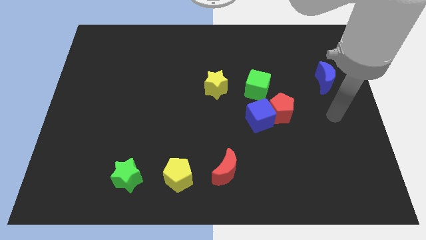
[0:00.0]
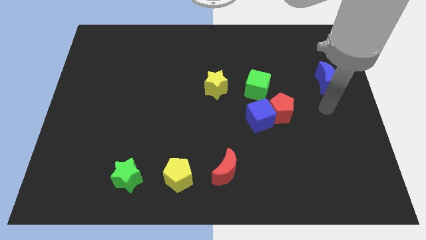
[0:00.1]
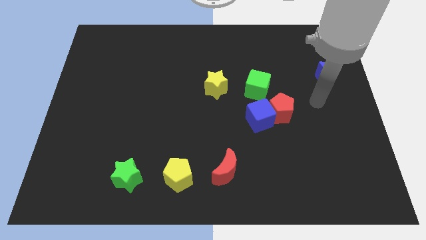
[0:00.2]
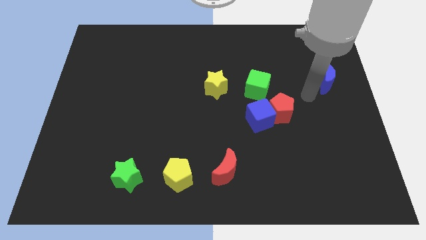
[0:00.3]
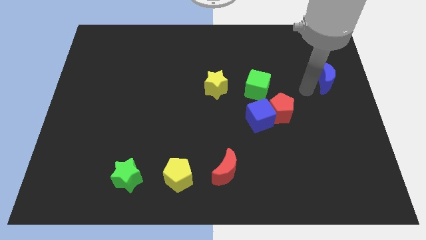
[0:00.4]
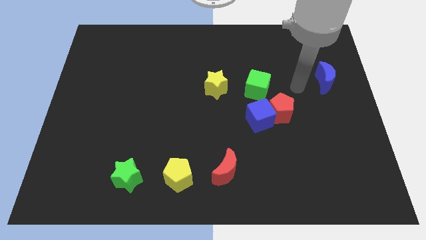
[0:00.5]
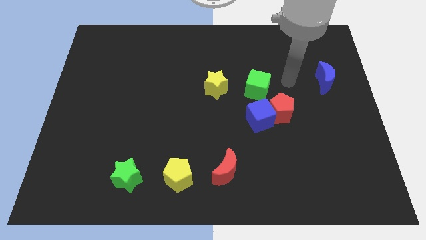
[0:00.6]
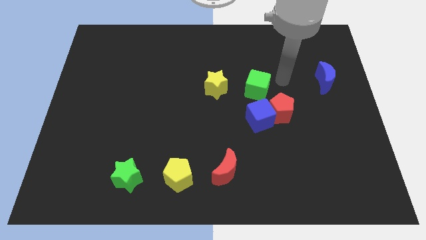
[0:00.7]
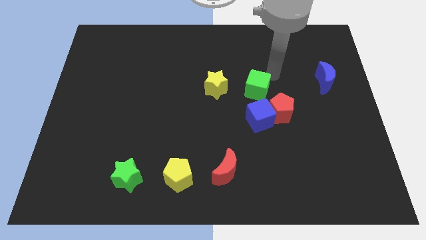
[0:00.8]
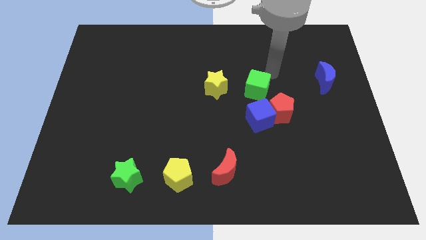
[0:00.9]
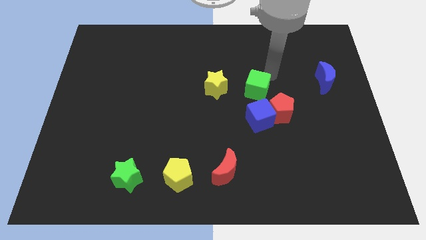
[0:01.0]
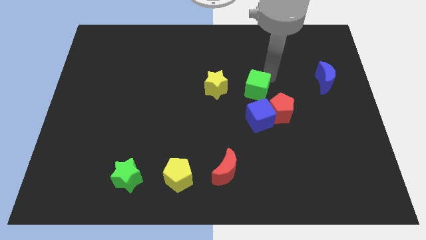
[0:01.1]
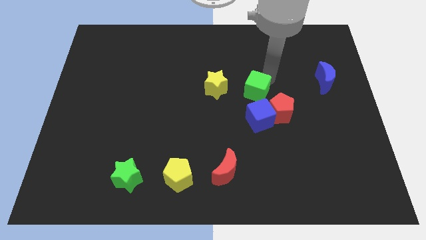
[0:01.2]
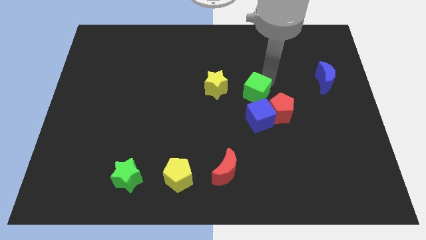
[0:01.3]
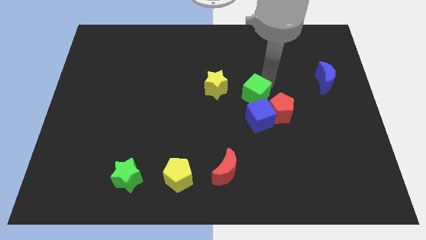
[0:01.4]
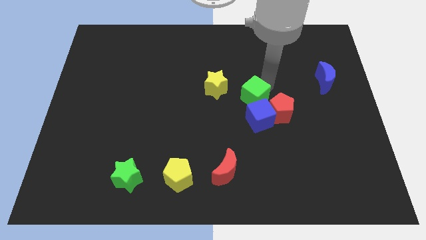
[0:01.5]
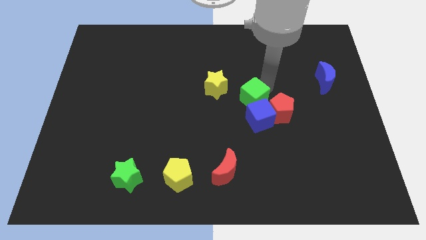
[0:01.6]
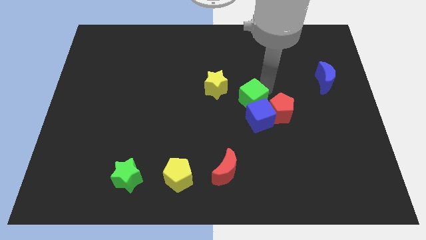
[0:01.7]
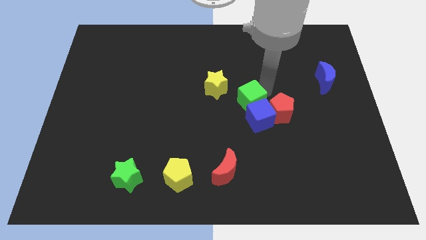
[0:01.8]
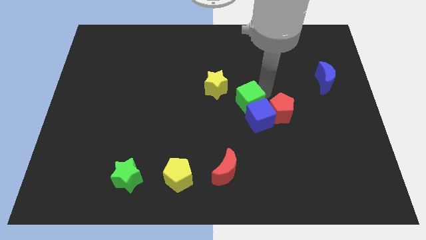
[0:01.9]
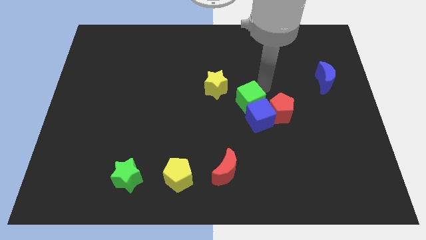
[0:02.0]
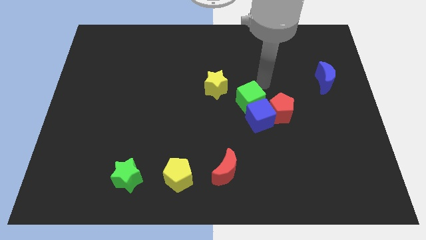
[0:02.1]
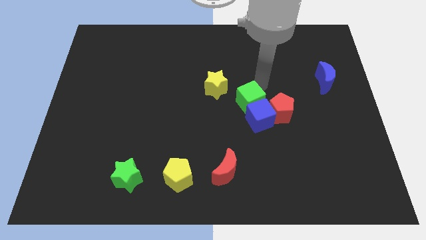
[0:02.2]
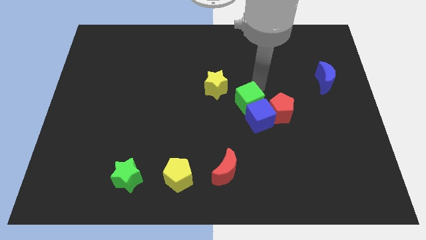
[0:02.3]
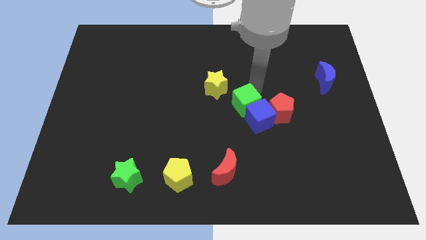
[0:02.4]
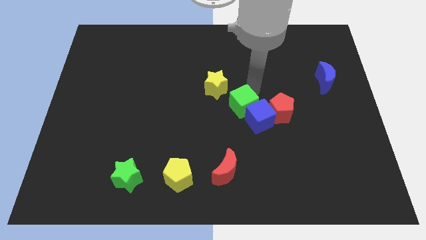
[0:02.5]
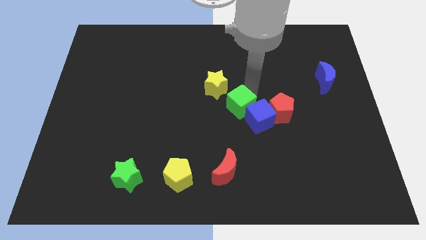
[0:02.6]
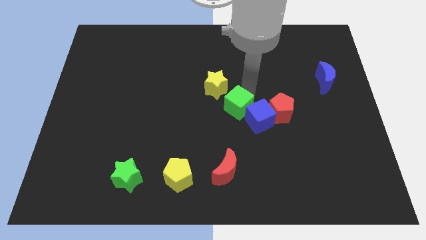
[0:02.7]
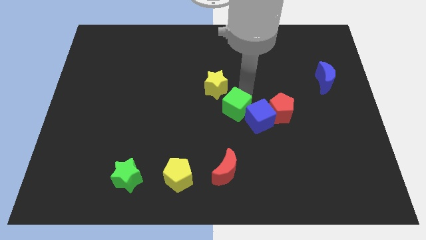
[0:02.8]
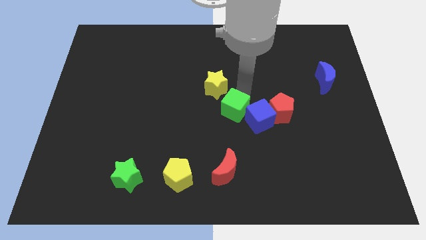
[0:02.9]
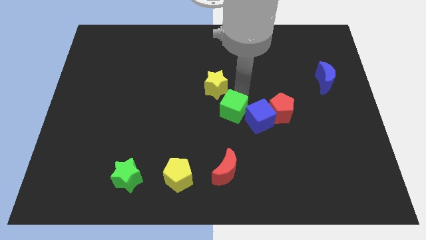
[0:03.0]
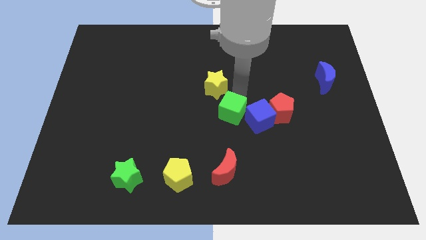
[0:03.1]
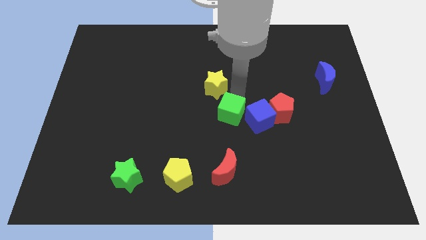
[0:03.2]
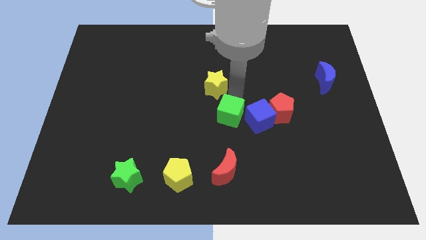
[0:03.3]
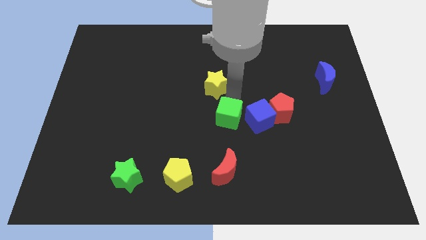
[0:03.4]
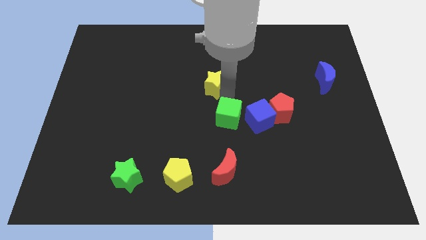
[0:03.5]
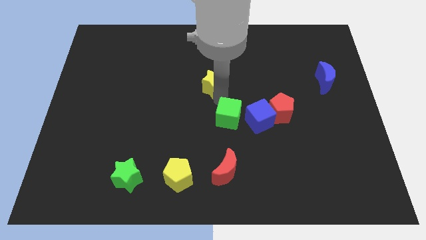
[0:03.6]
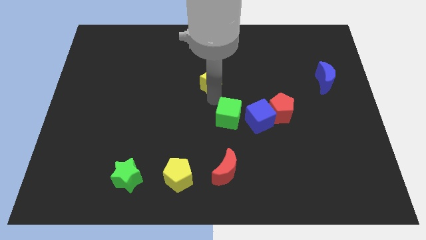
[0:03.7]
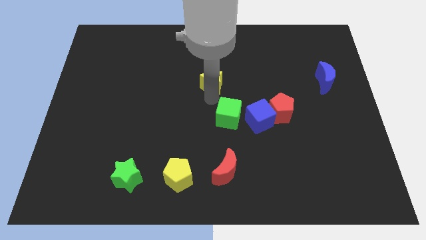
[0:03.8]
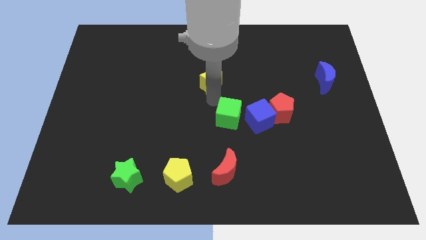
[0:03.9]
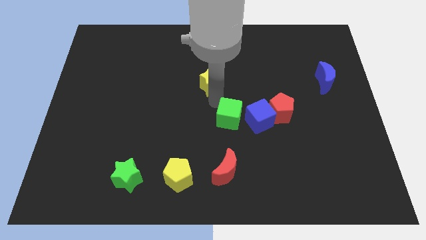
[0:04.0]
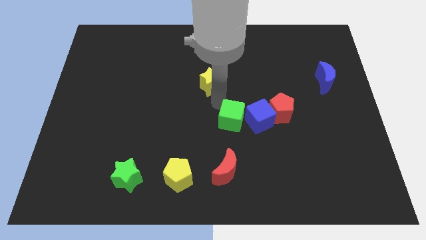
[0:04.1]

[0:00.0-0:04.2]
move the green cube a little bit down

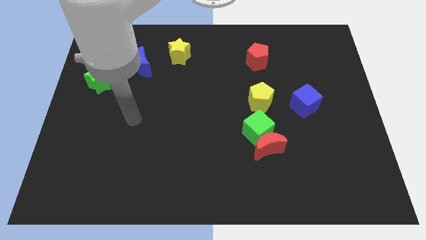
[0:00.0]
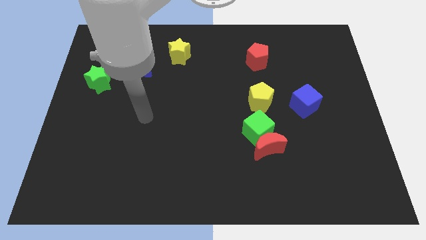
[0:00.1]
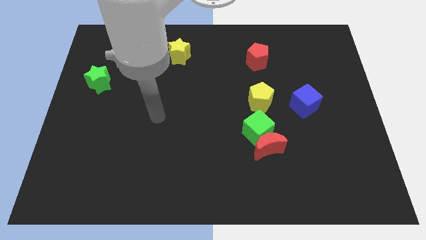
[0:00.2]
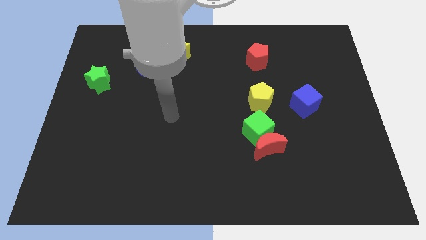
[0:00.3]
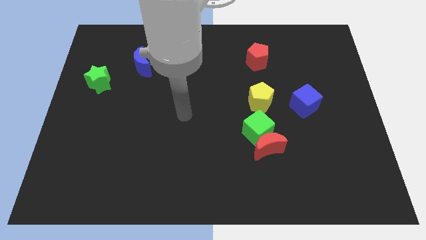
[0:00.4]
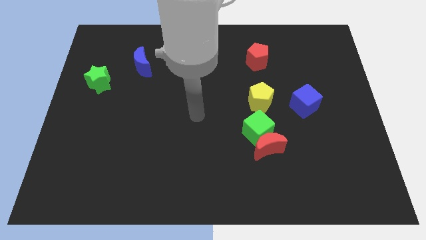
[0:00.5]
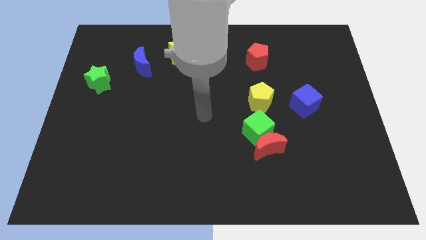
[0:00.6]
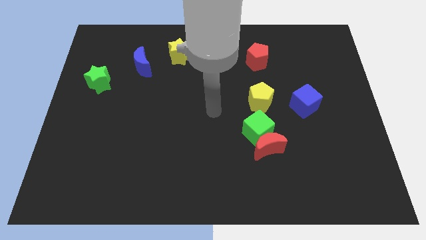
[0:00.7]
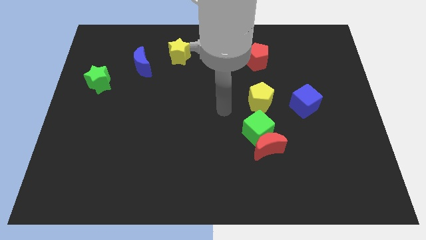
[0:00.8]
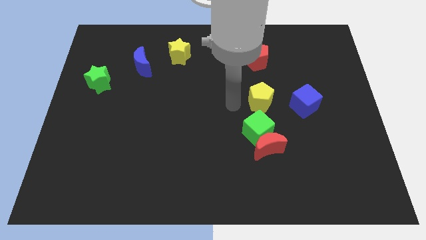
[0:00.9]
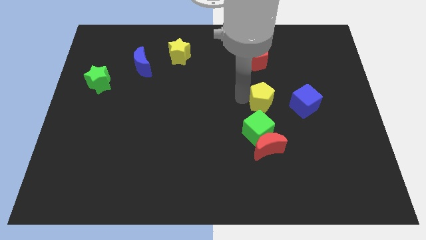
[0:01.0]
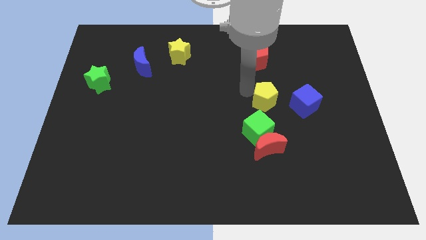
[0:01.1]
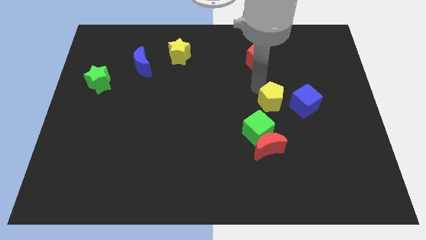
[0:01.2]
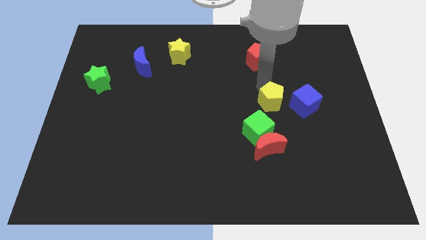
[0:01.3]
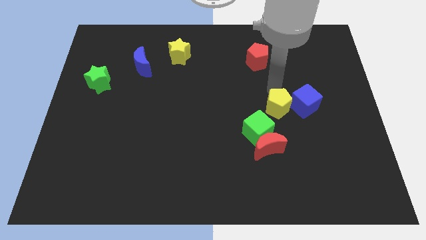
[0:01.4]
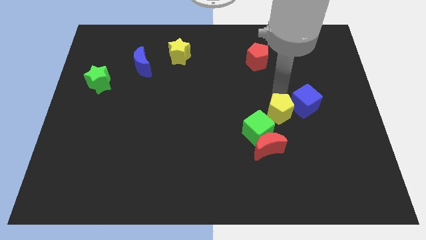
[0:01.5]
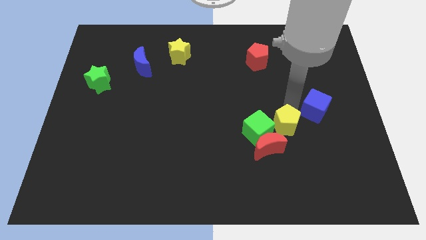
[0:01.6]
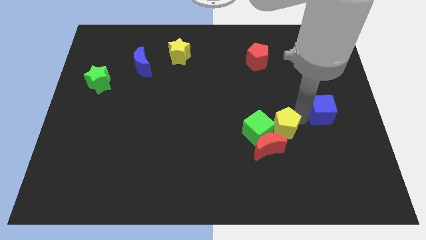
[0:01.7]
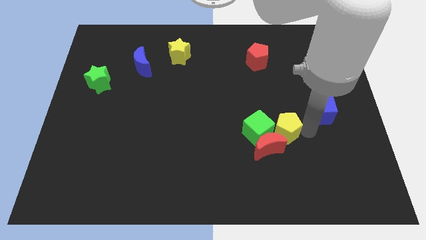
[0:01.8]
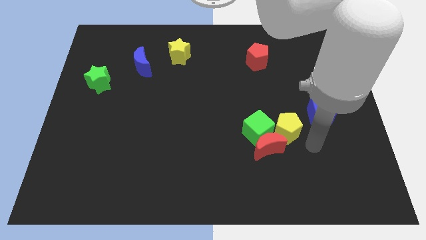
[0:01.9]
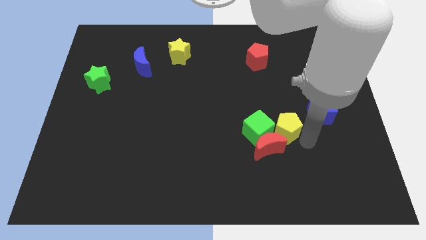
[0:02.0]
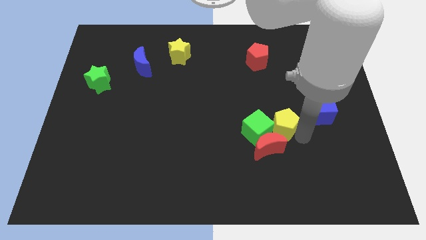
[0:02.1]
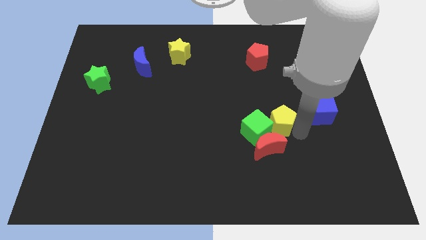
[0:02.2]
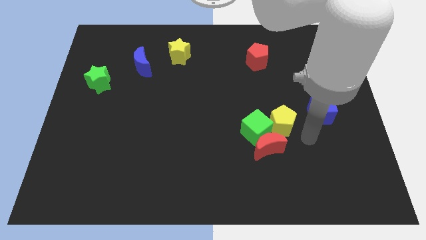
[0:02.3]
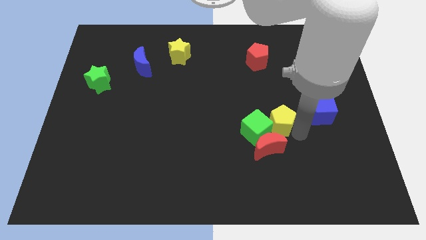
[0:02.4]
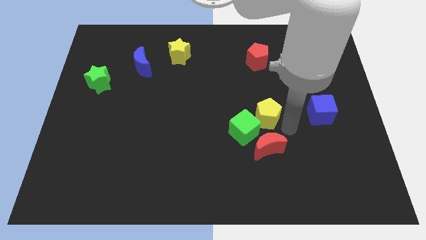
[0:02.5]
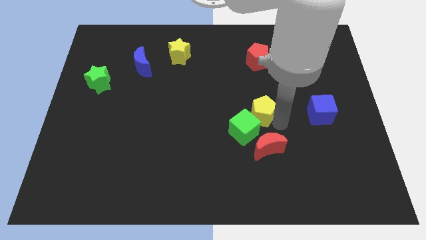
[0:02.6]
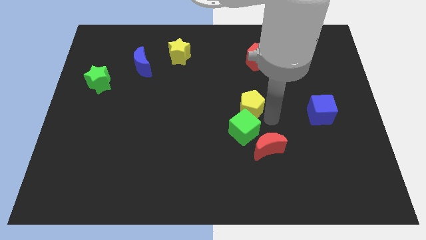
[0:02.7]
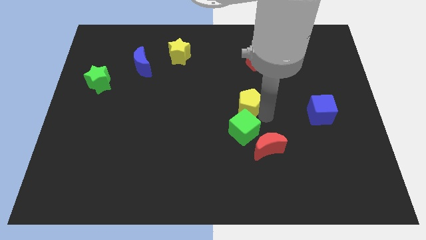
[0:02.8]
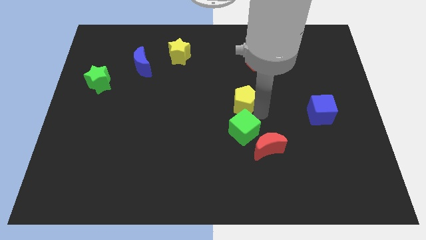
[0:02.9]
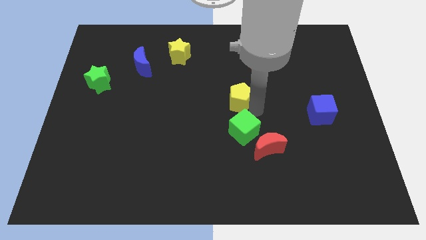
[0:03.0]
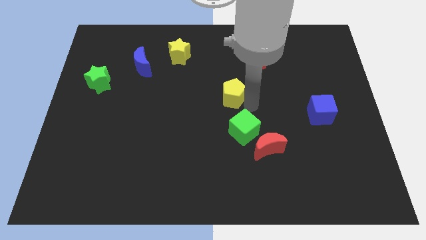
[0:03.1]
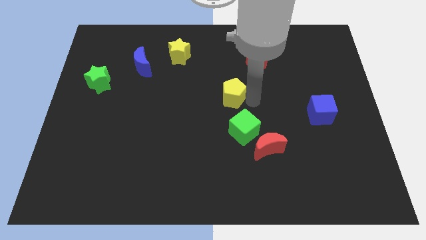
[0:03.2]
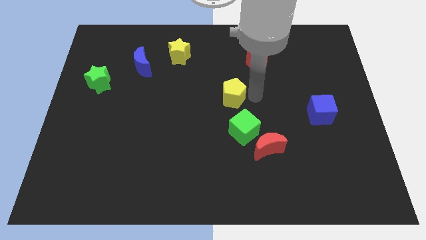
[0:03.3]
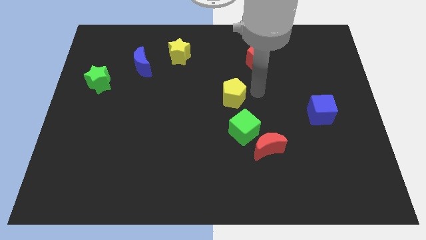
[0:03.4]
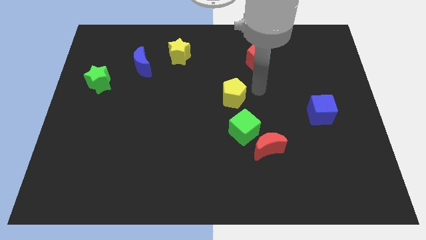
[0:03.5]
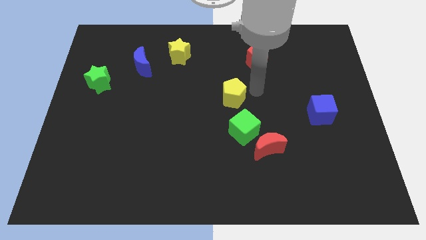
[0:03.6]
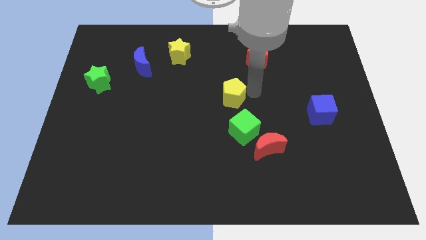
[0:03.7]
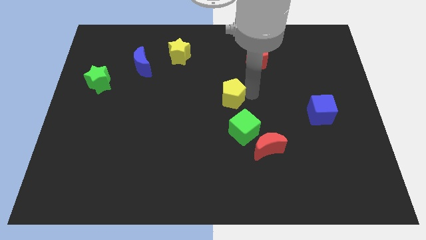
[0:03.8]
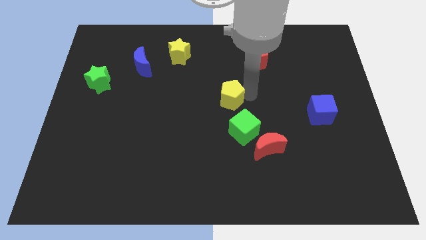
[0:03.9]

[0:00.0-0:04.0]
push the yellow pentagon slightly to the left
